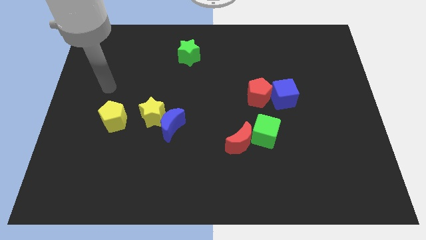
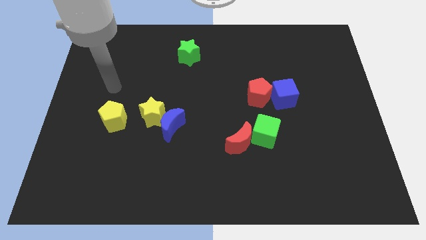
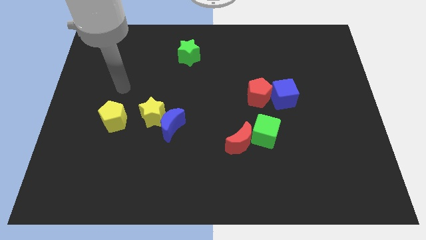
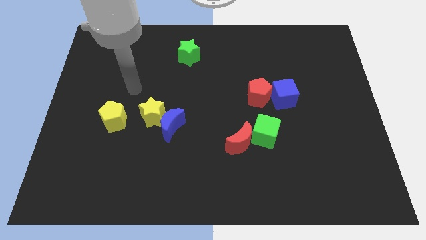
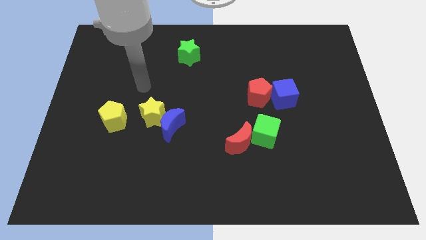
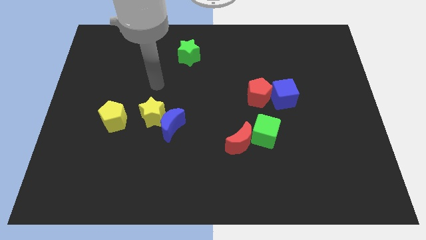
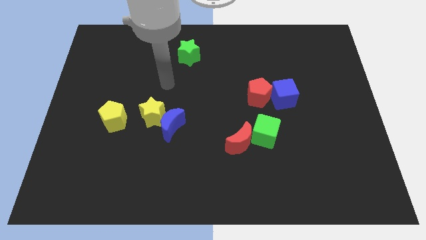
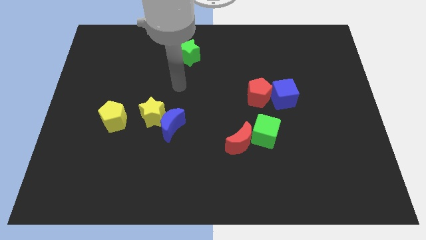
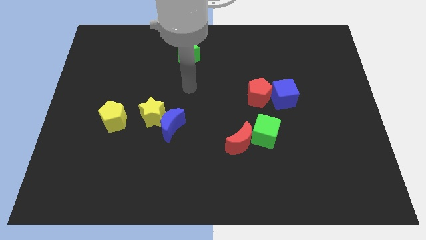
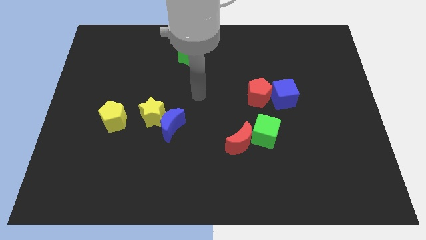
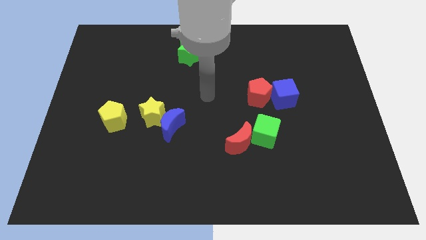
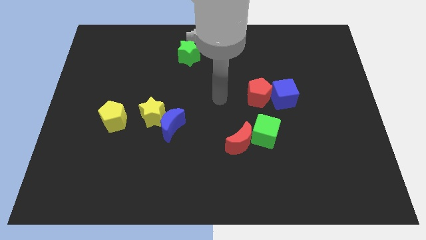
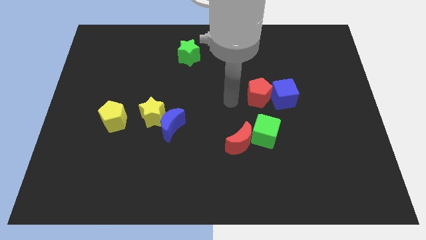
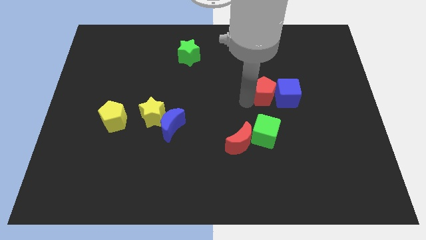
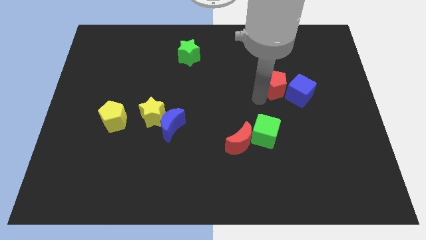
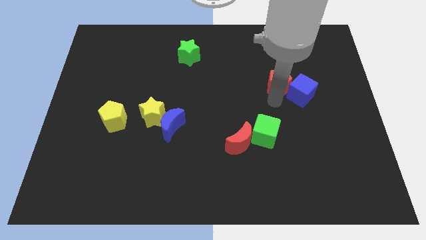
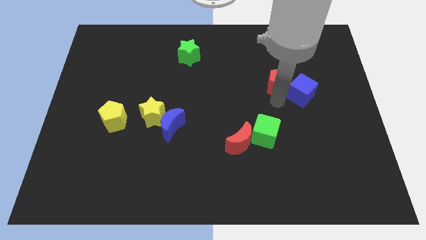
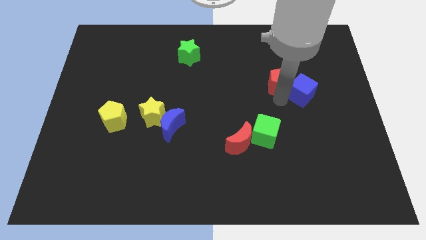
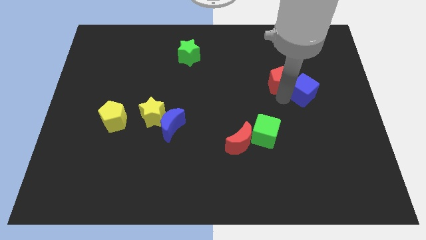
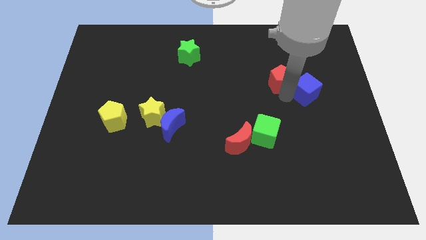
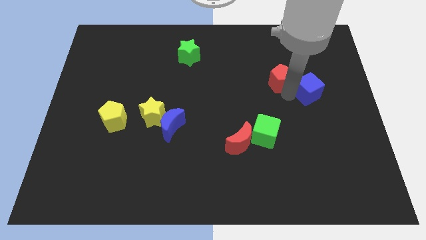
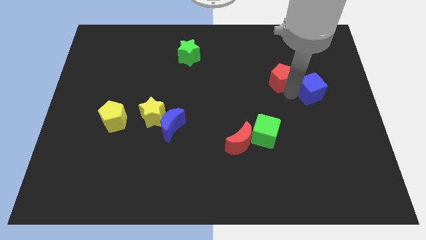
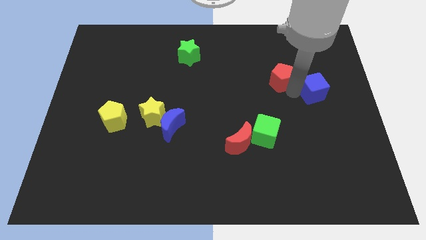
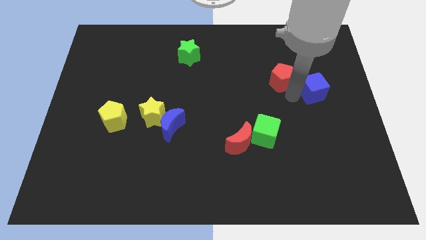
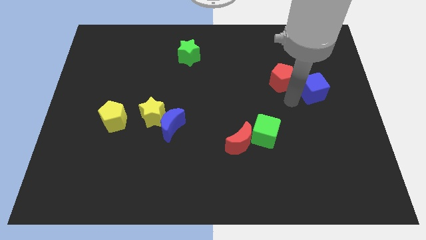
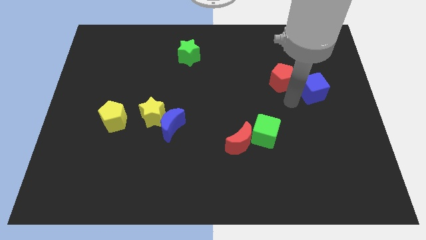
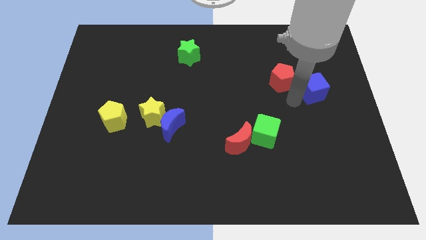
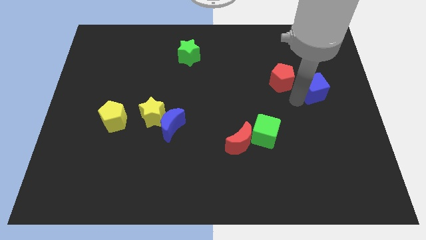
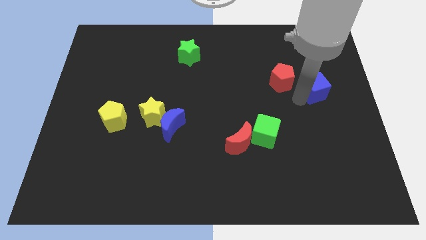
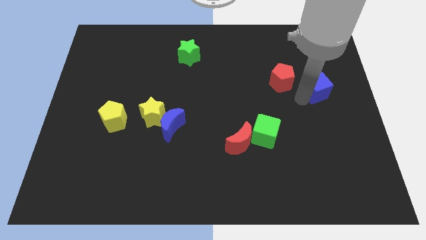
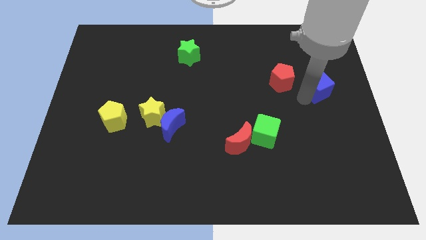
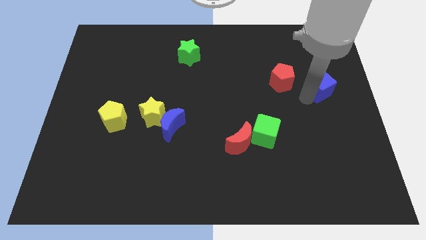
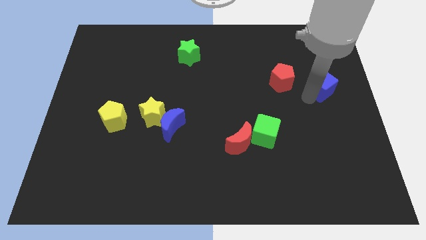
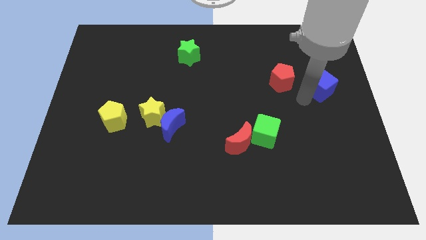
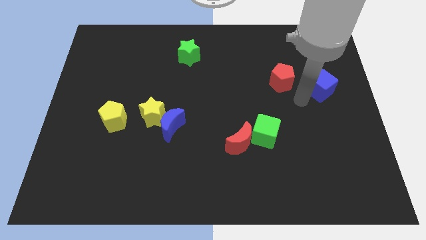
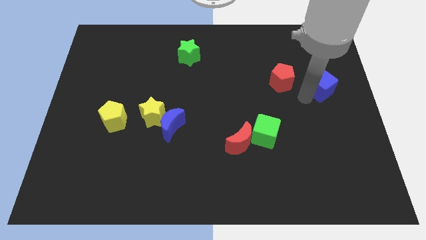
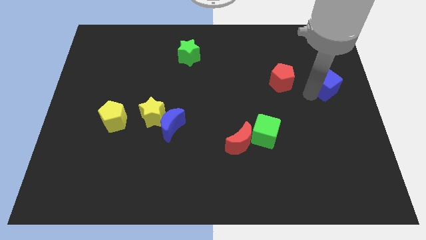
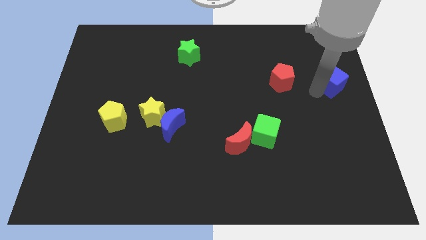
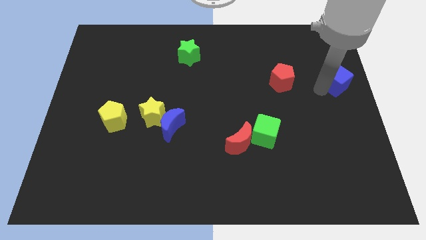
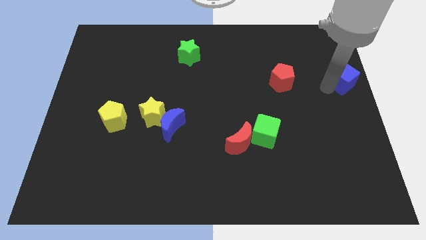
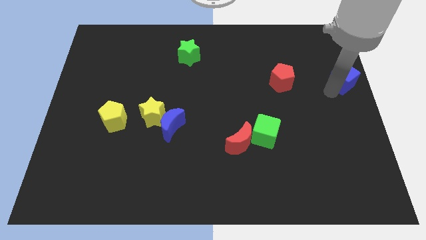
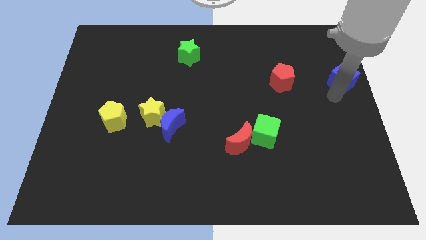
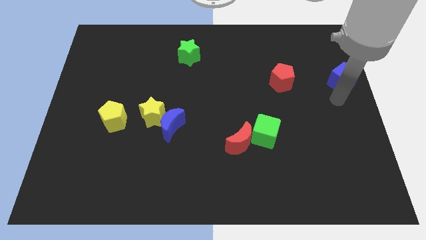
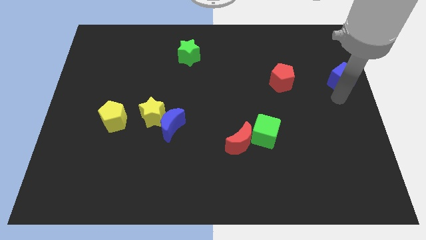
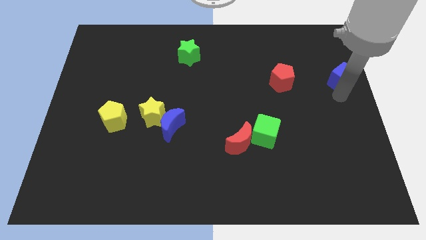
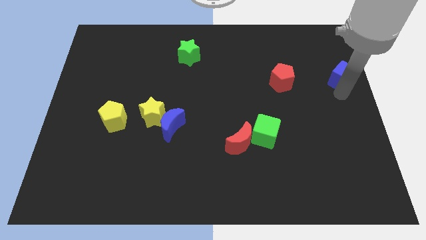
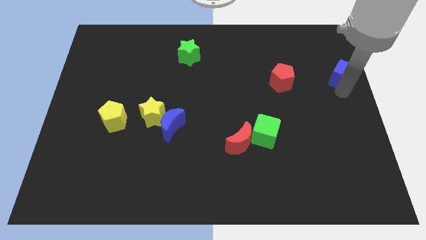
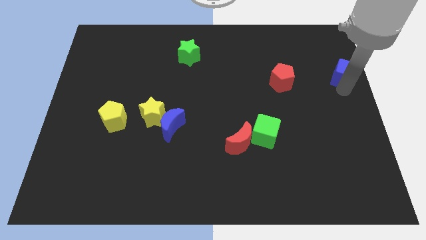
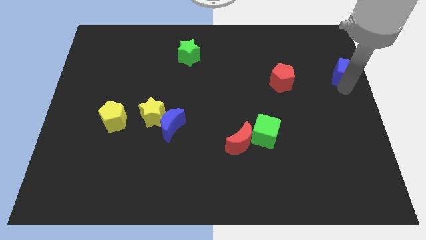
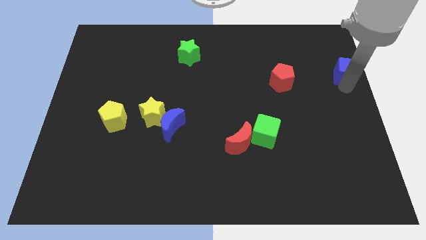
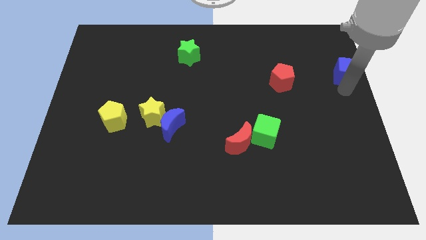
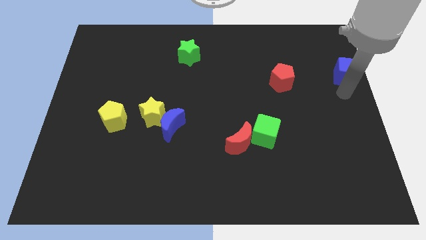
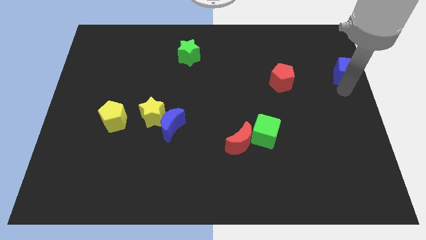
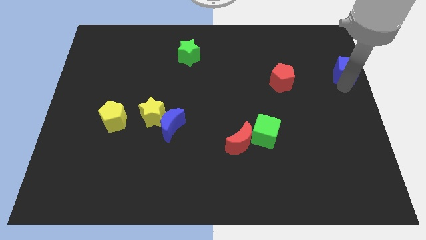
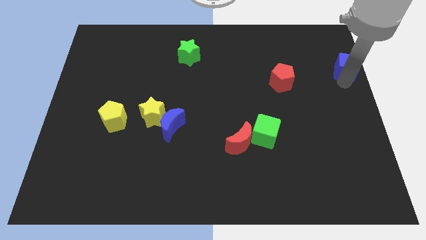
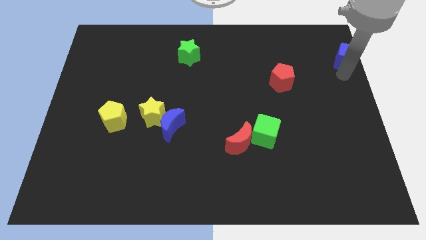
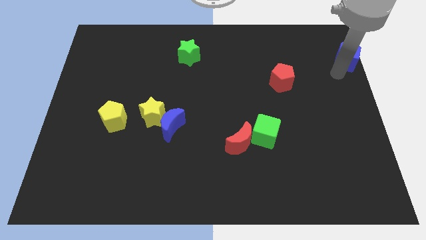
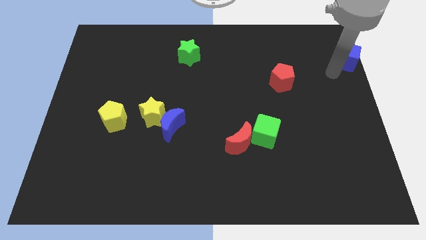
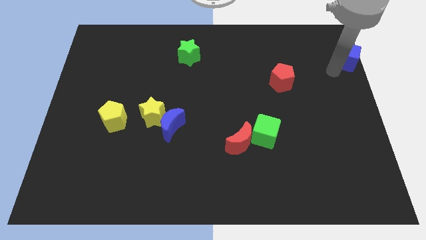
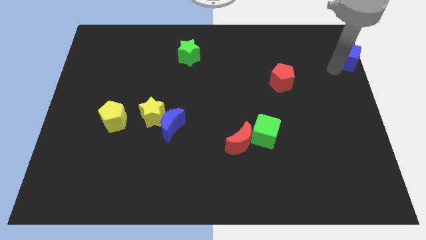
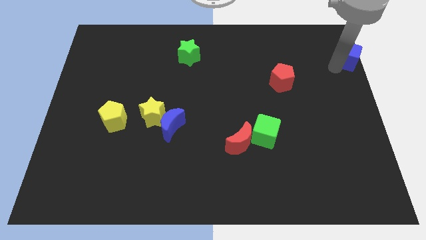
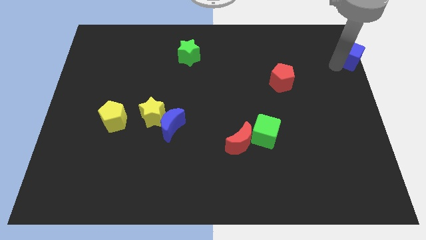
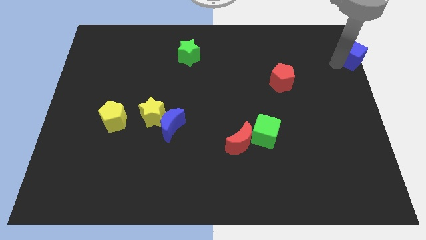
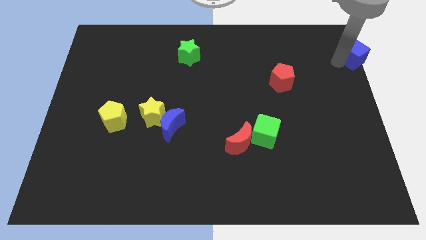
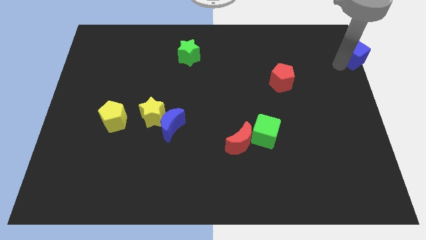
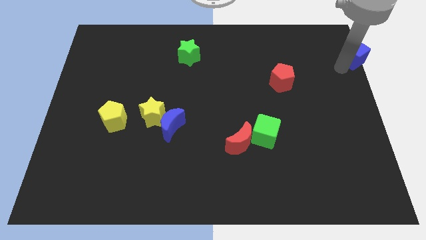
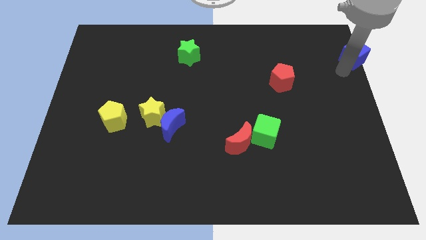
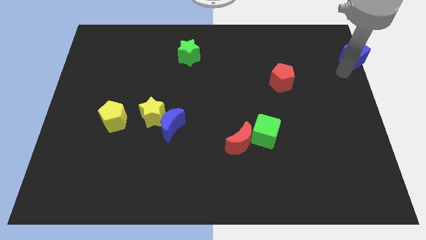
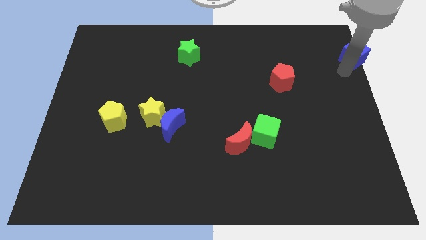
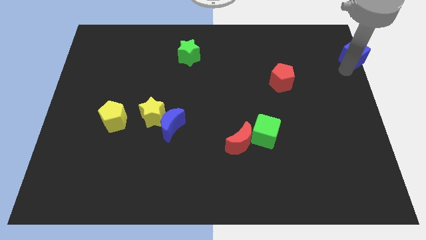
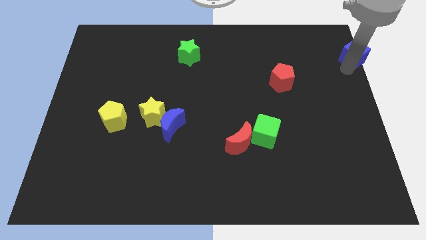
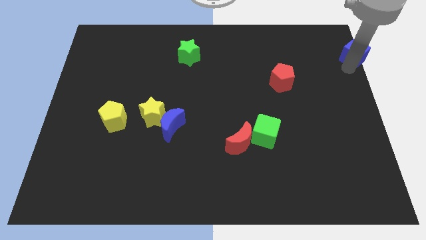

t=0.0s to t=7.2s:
move the blue cube to the top right corner

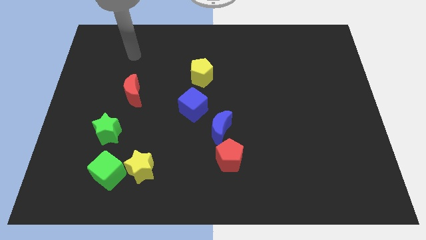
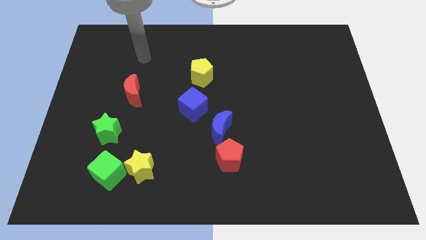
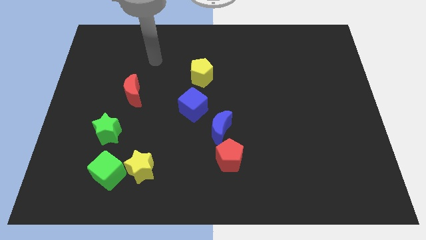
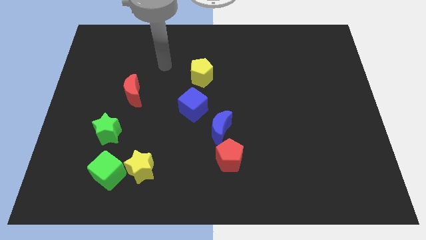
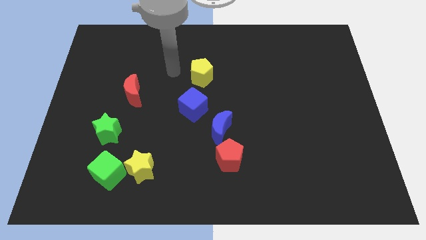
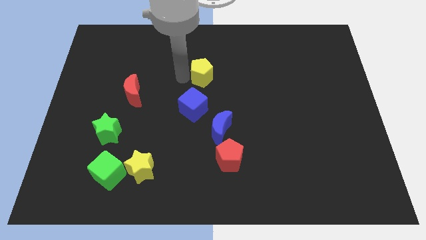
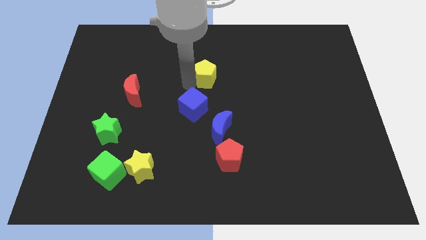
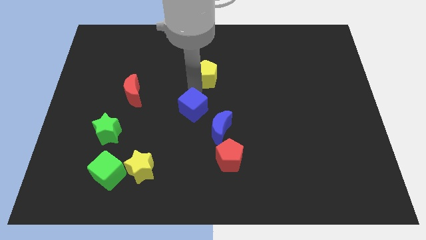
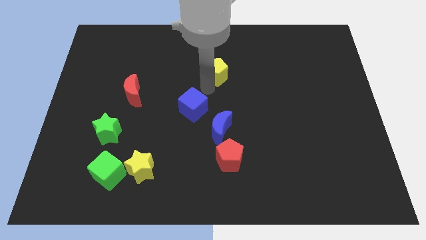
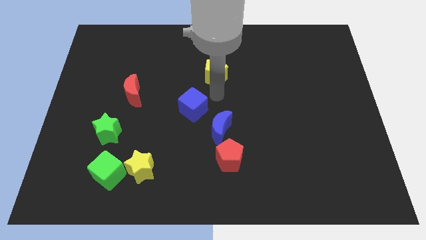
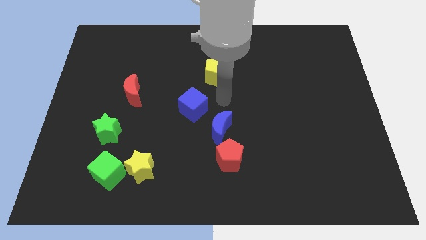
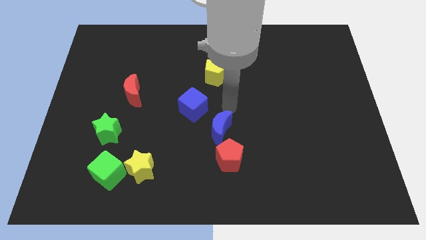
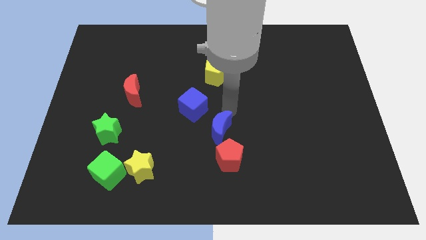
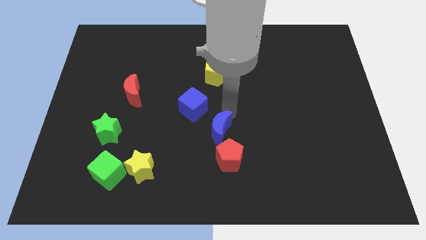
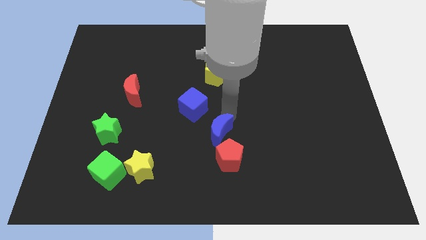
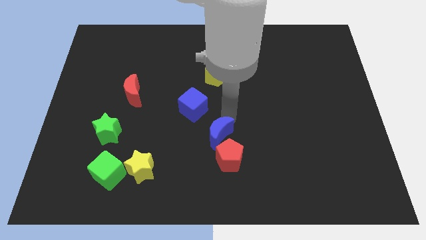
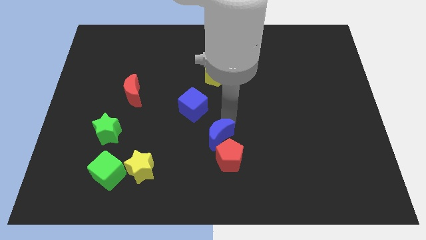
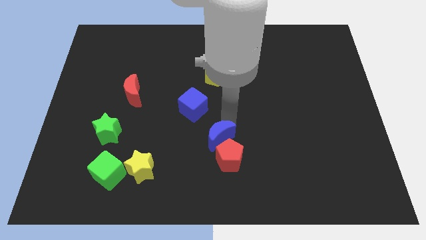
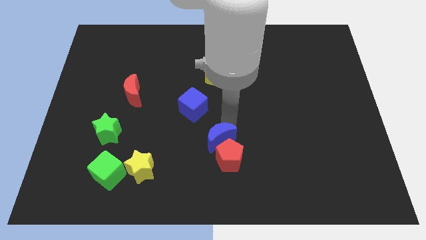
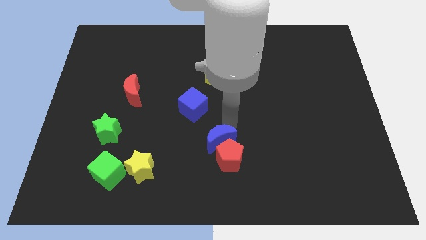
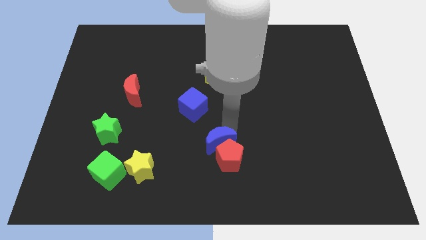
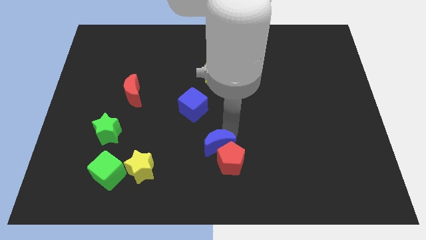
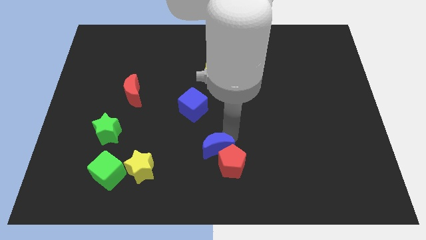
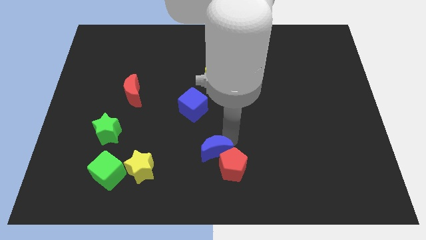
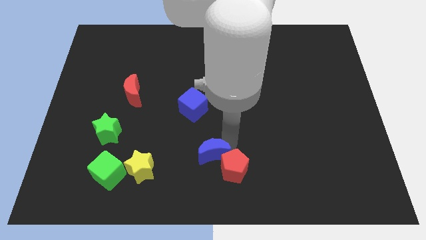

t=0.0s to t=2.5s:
push the blue moon to the bottom side
